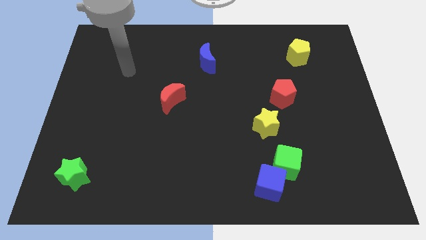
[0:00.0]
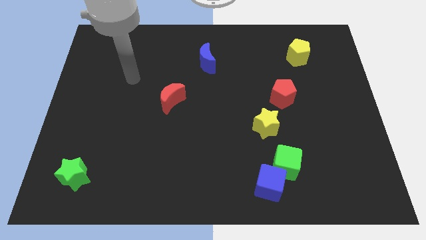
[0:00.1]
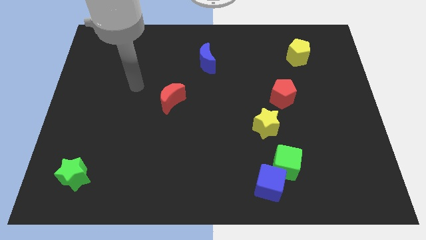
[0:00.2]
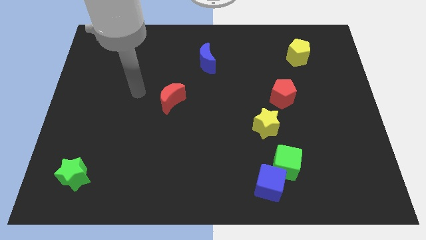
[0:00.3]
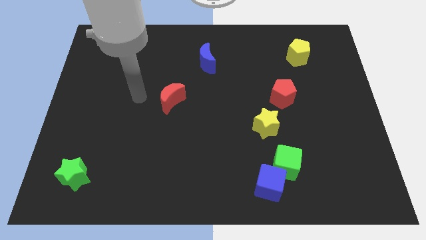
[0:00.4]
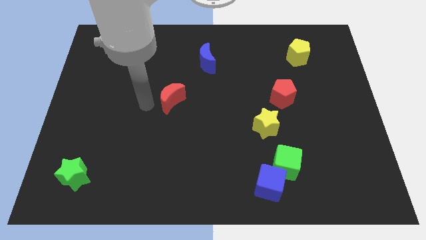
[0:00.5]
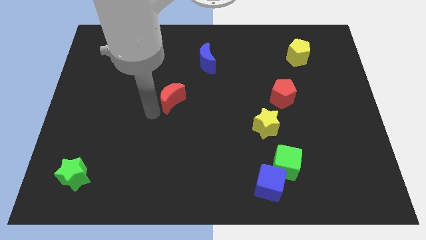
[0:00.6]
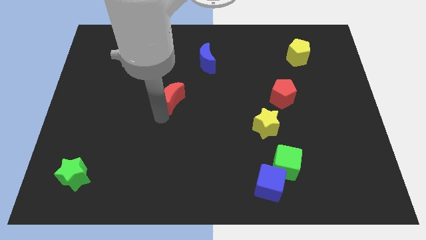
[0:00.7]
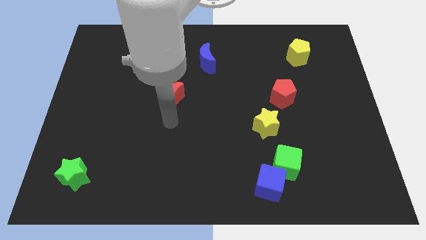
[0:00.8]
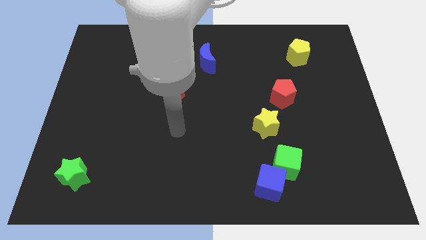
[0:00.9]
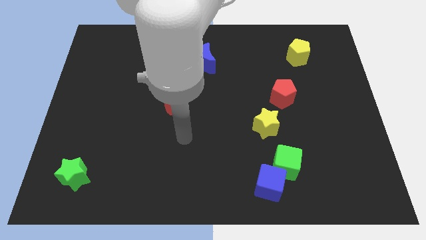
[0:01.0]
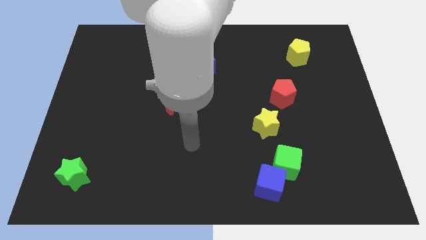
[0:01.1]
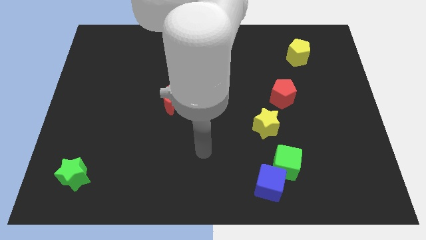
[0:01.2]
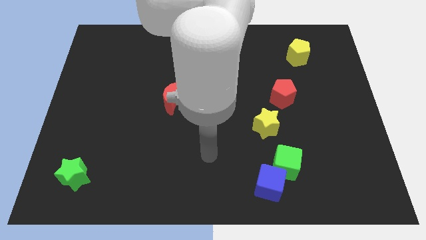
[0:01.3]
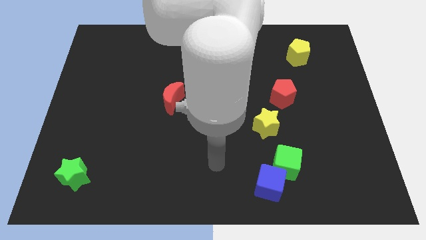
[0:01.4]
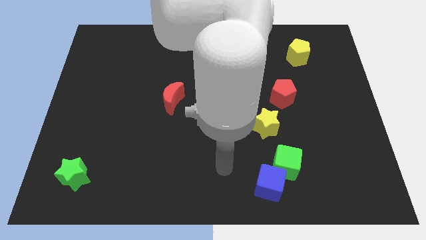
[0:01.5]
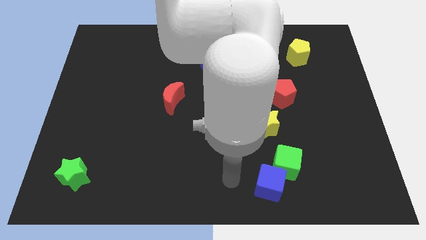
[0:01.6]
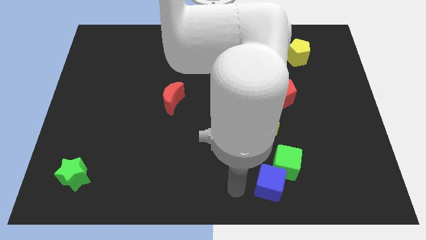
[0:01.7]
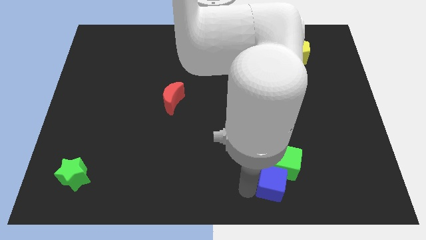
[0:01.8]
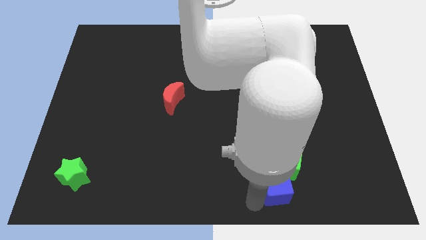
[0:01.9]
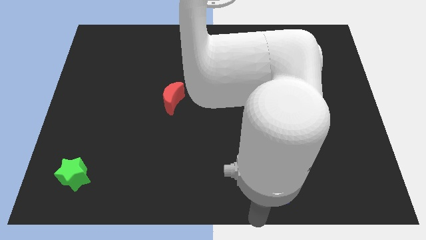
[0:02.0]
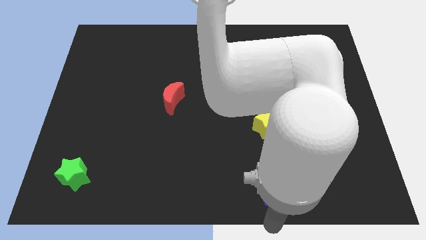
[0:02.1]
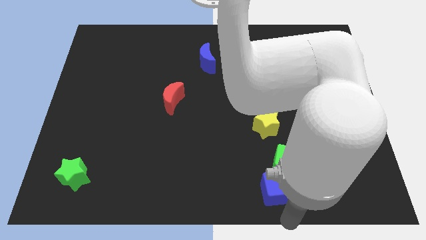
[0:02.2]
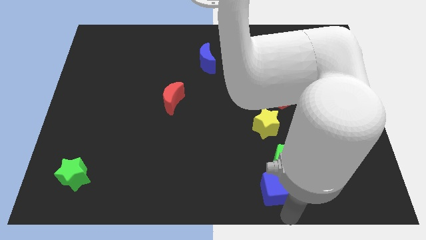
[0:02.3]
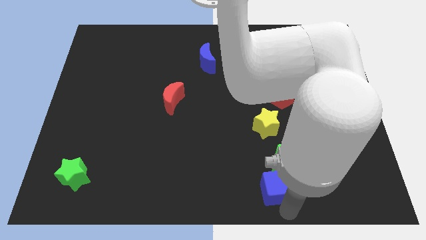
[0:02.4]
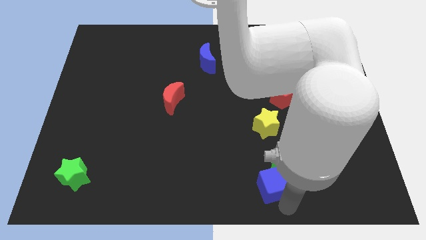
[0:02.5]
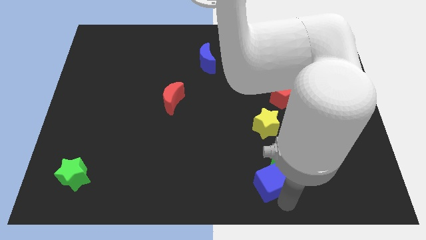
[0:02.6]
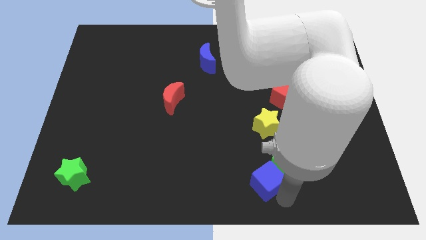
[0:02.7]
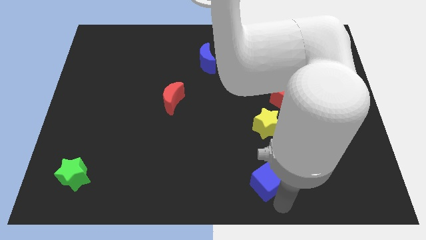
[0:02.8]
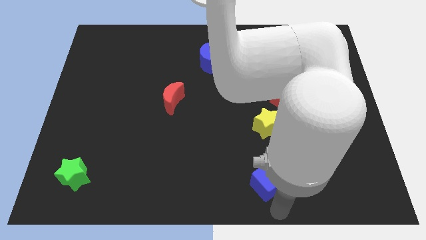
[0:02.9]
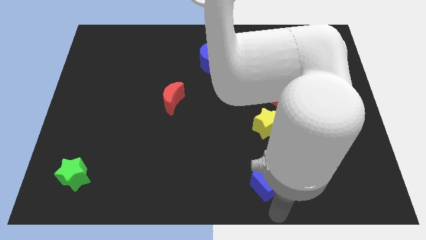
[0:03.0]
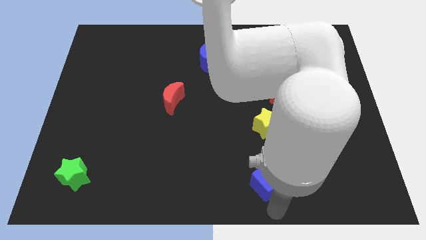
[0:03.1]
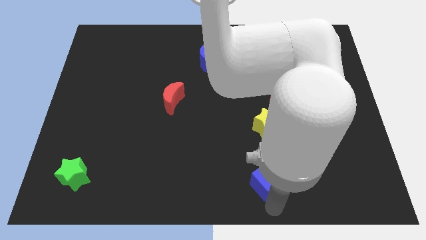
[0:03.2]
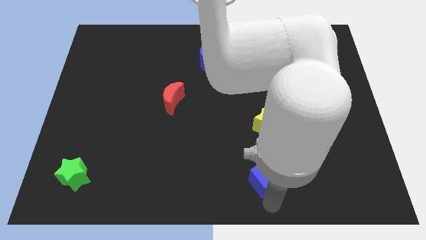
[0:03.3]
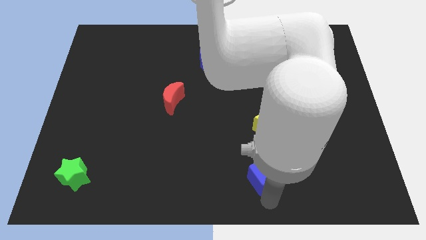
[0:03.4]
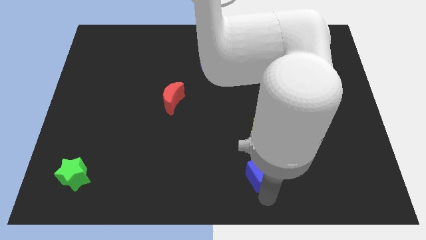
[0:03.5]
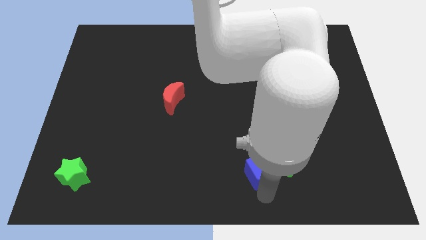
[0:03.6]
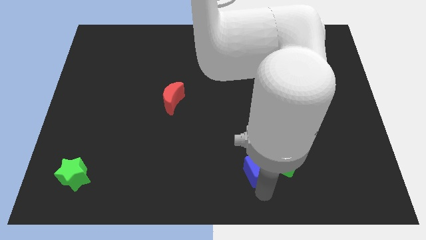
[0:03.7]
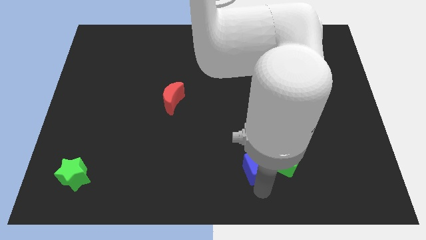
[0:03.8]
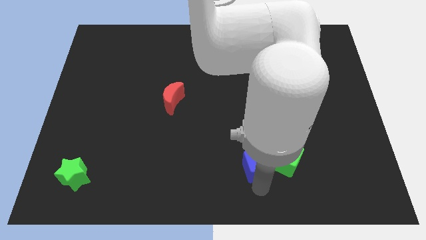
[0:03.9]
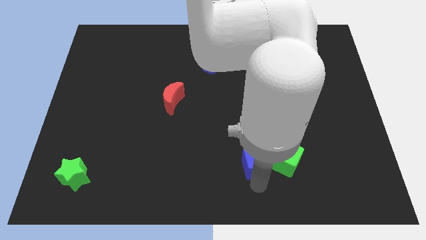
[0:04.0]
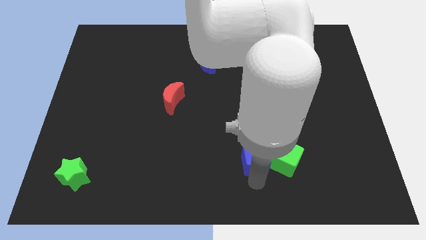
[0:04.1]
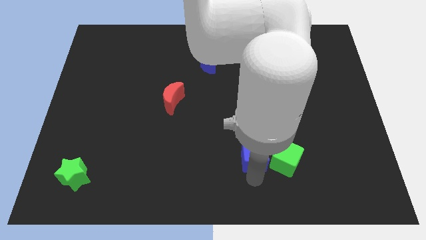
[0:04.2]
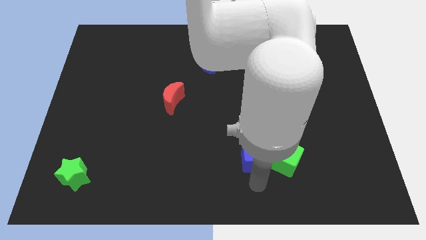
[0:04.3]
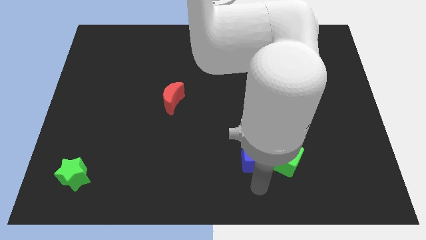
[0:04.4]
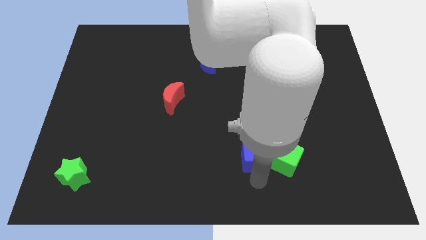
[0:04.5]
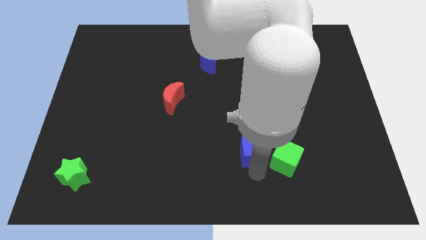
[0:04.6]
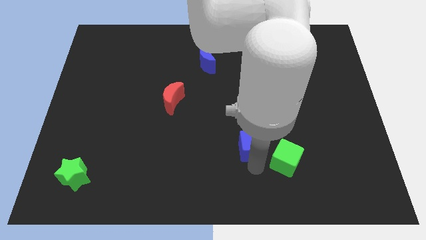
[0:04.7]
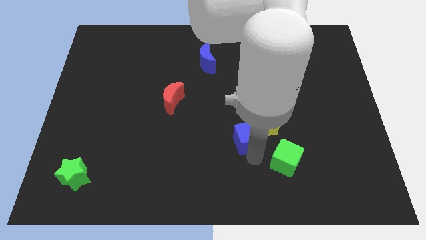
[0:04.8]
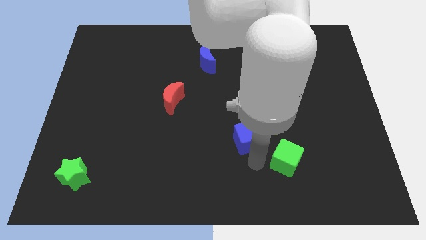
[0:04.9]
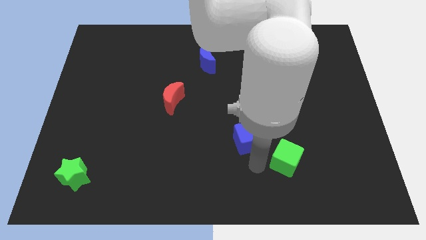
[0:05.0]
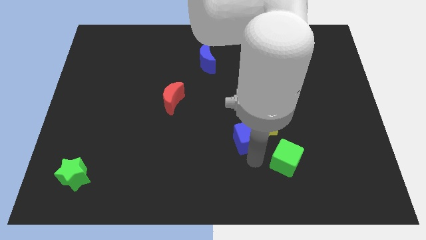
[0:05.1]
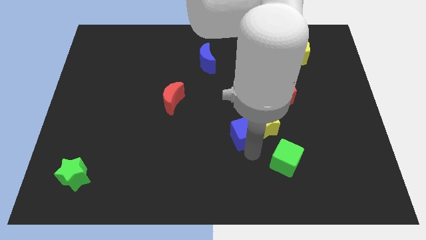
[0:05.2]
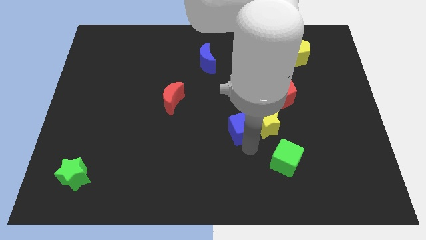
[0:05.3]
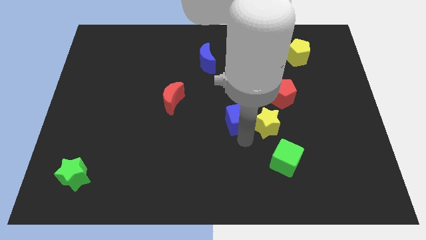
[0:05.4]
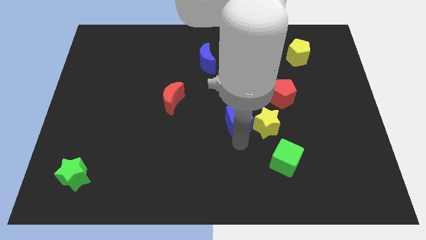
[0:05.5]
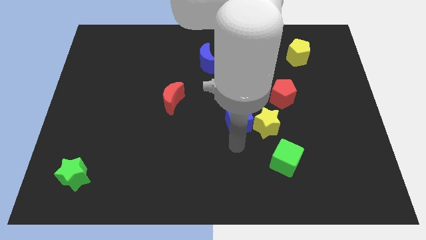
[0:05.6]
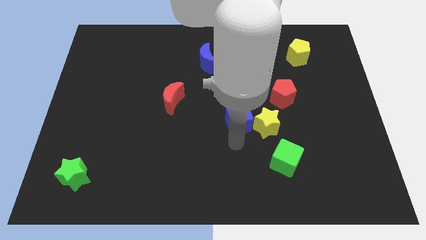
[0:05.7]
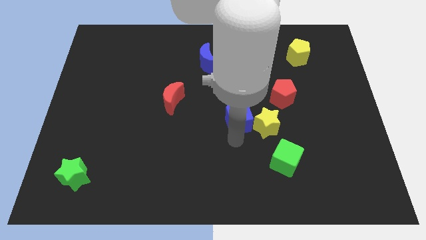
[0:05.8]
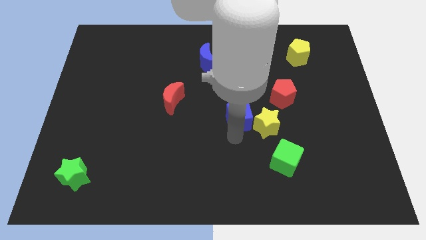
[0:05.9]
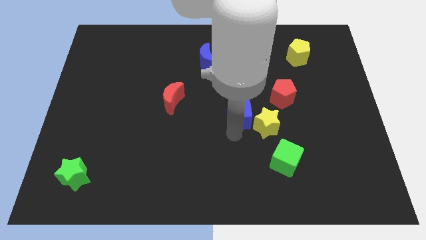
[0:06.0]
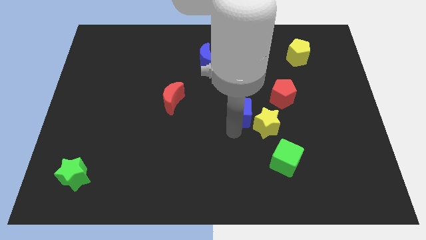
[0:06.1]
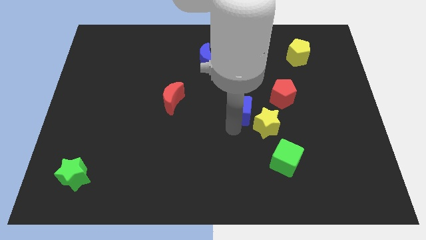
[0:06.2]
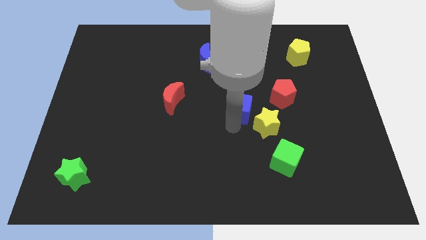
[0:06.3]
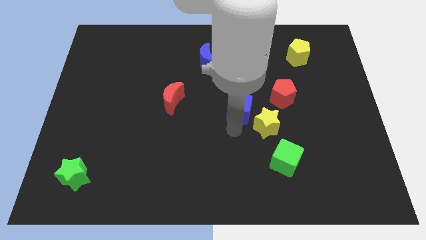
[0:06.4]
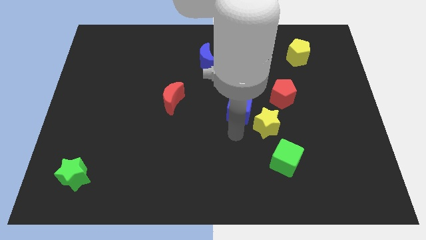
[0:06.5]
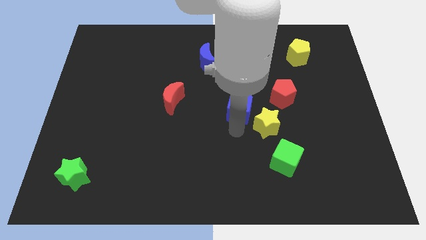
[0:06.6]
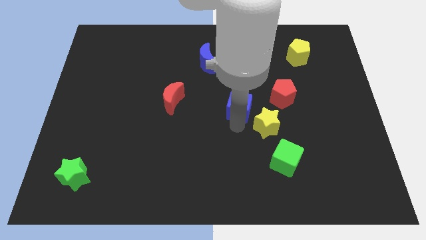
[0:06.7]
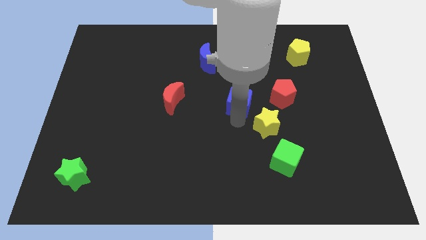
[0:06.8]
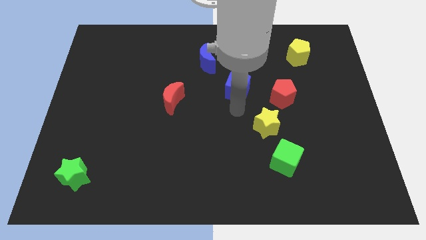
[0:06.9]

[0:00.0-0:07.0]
push the blue cube up

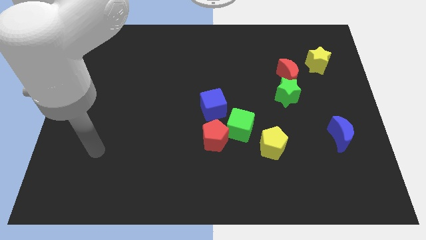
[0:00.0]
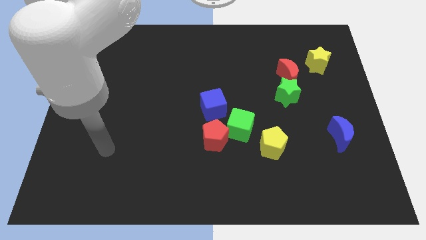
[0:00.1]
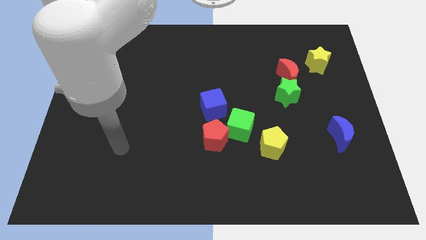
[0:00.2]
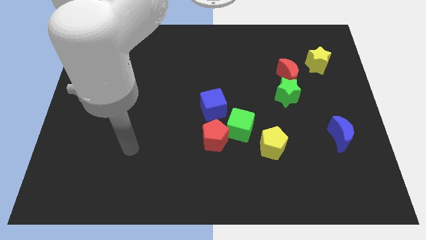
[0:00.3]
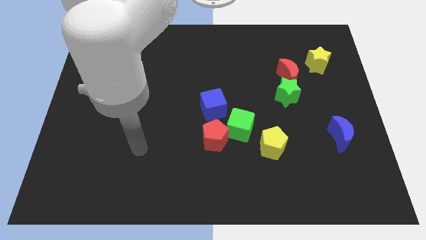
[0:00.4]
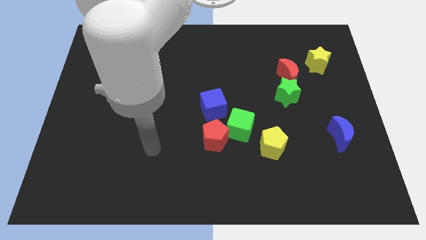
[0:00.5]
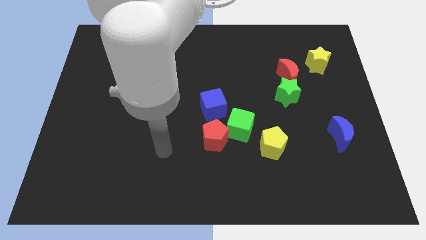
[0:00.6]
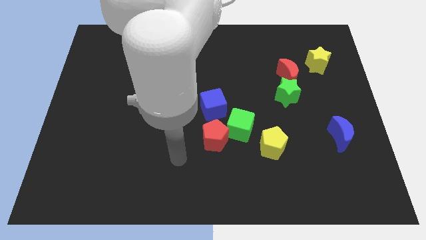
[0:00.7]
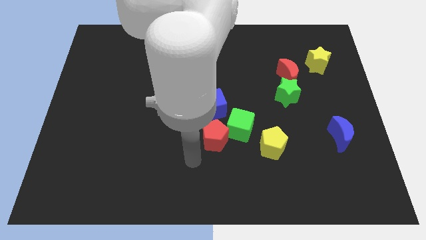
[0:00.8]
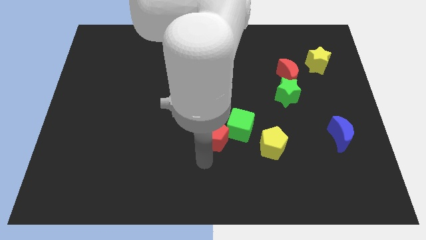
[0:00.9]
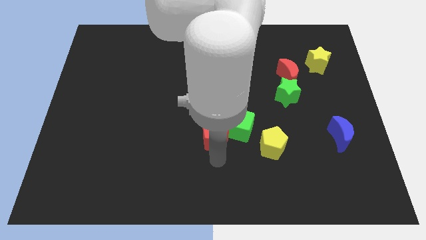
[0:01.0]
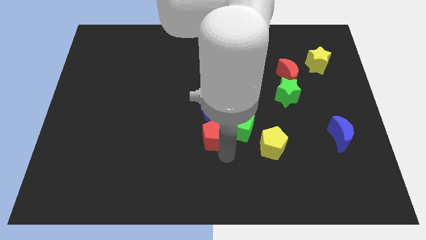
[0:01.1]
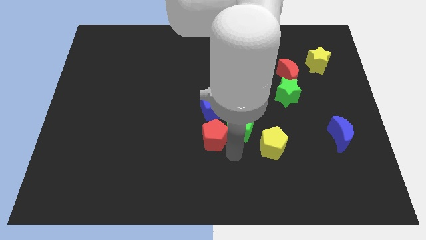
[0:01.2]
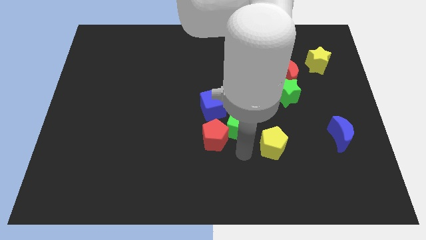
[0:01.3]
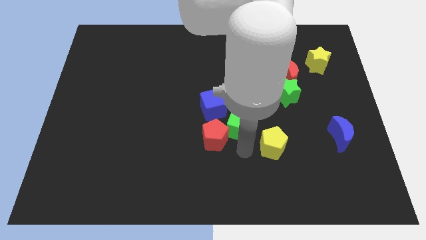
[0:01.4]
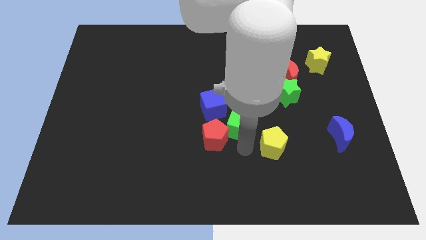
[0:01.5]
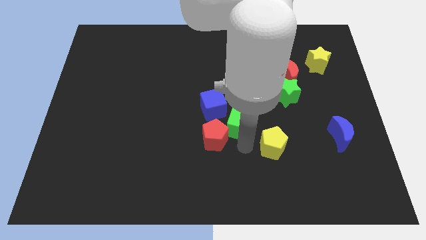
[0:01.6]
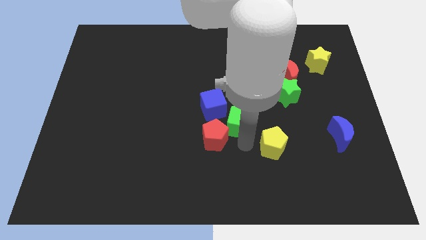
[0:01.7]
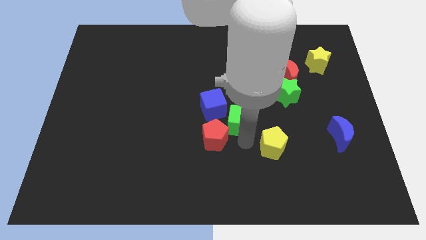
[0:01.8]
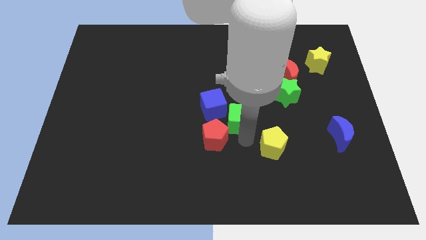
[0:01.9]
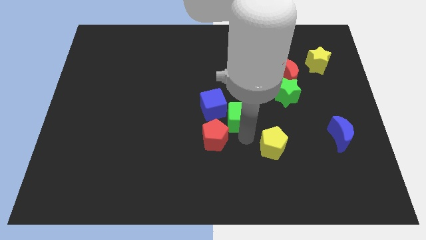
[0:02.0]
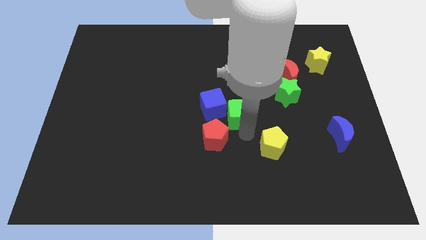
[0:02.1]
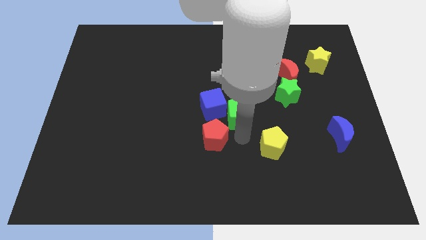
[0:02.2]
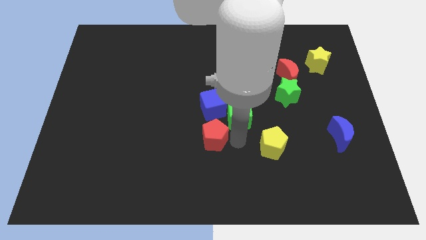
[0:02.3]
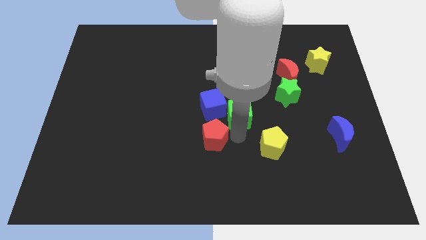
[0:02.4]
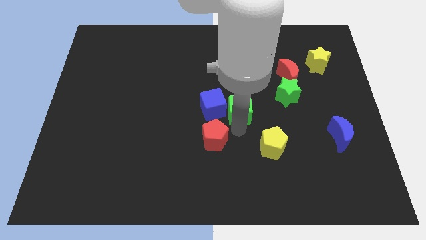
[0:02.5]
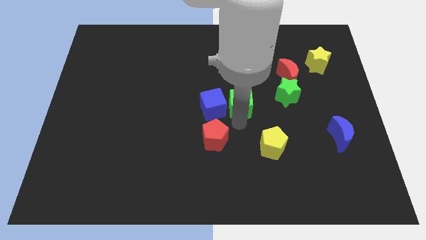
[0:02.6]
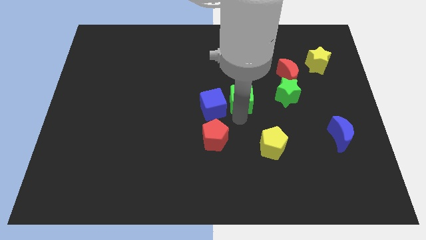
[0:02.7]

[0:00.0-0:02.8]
slide the green cube a little bit up
